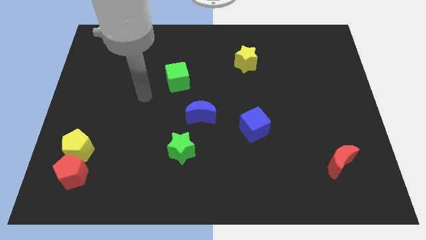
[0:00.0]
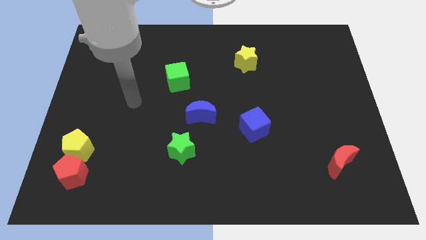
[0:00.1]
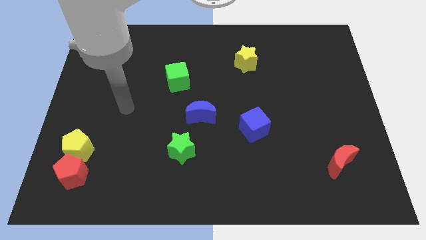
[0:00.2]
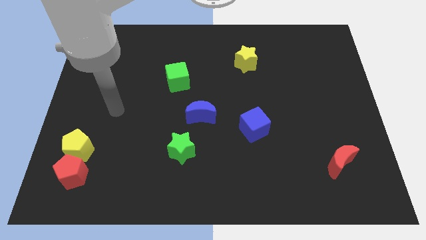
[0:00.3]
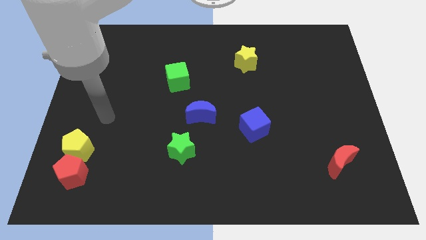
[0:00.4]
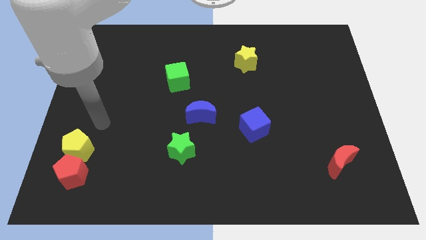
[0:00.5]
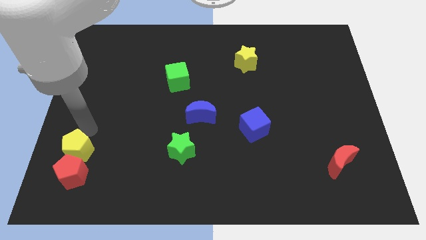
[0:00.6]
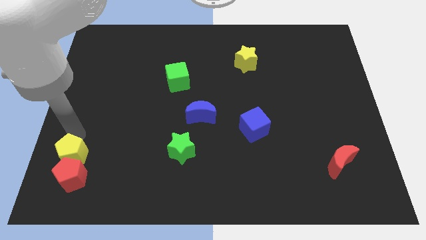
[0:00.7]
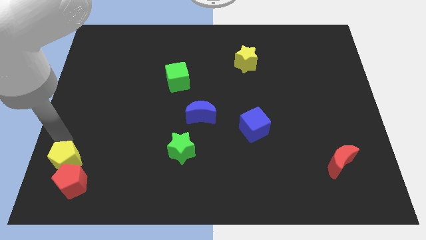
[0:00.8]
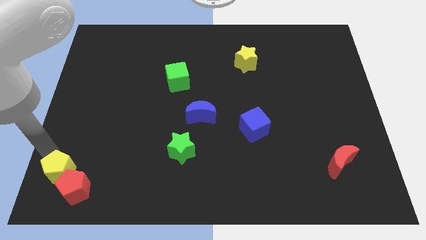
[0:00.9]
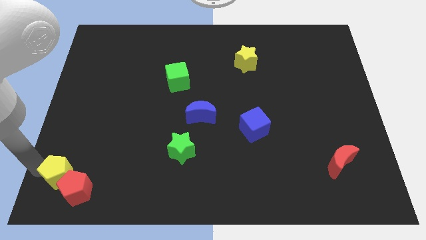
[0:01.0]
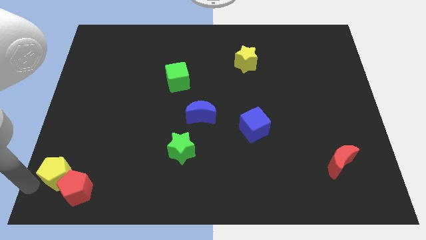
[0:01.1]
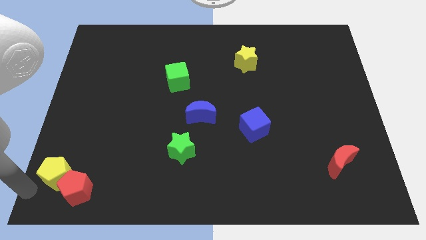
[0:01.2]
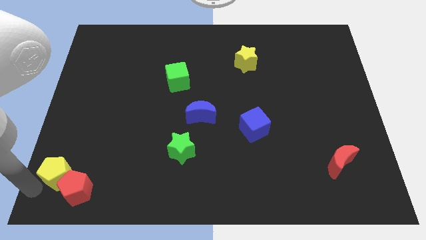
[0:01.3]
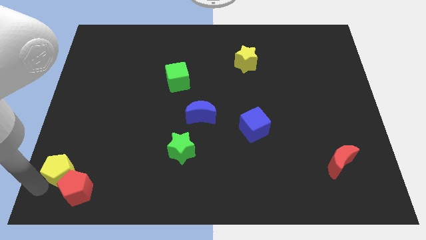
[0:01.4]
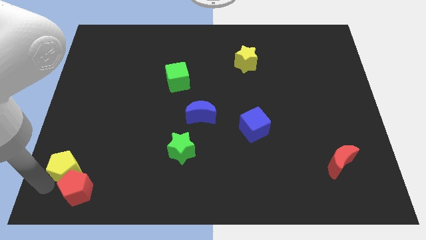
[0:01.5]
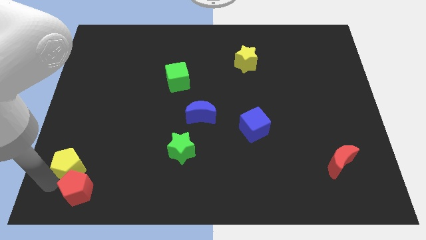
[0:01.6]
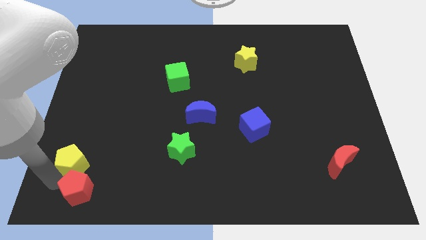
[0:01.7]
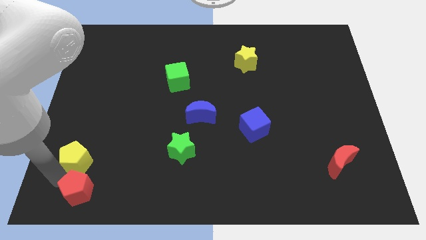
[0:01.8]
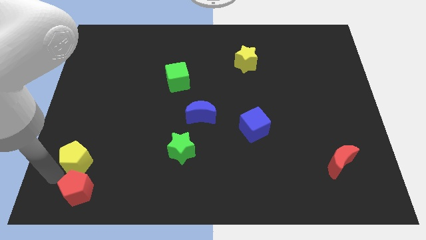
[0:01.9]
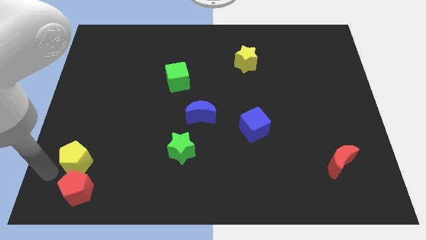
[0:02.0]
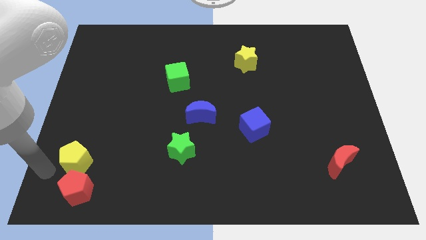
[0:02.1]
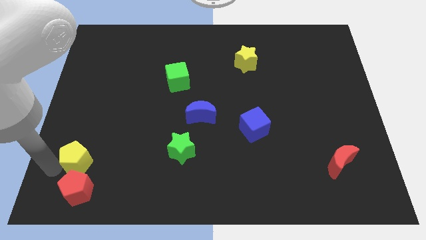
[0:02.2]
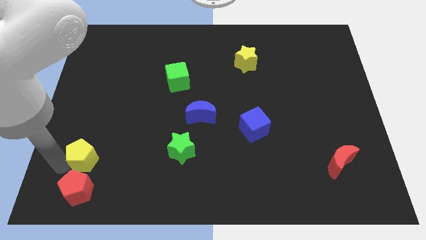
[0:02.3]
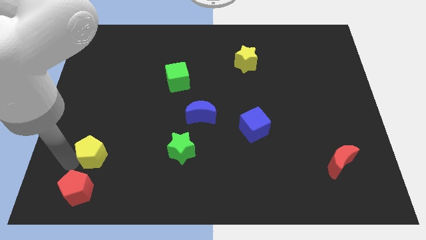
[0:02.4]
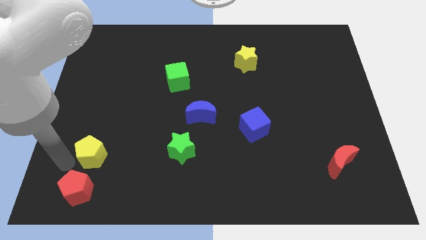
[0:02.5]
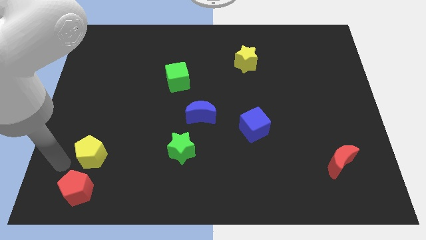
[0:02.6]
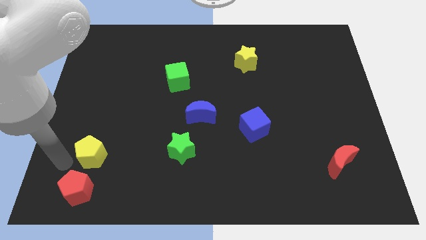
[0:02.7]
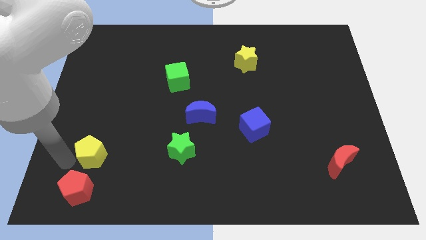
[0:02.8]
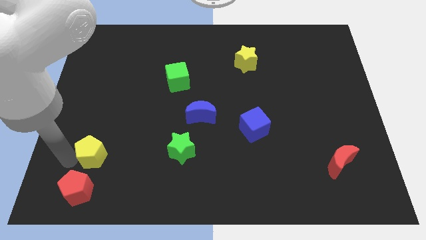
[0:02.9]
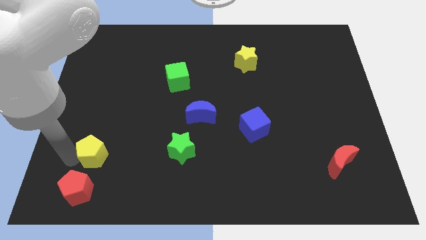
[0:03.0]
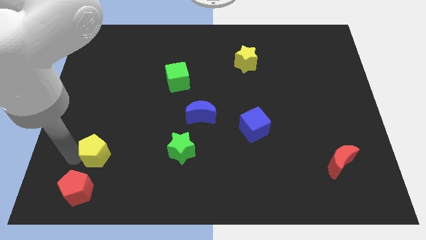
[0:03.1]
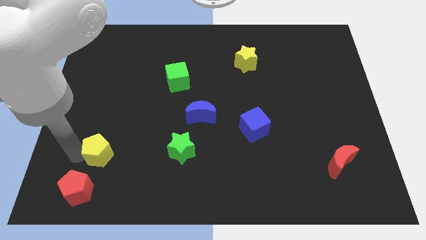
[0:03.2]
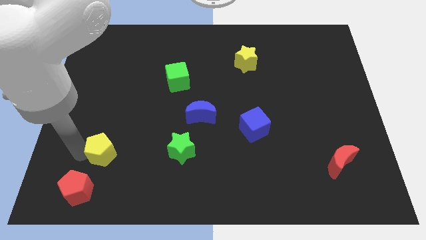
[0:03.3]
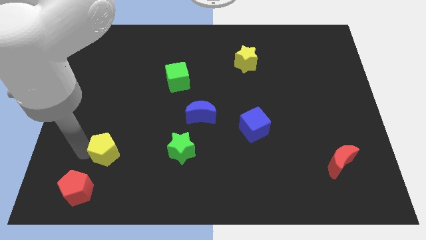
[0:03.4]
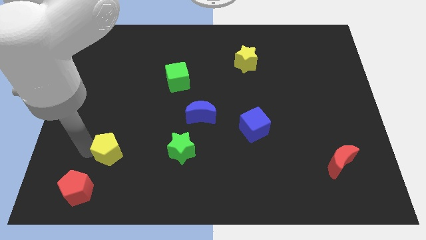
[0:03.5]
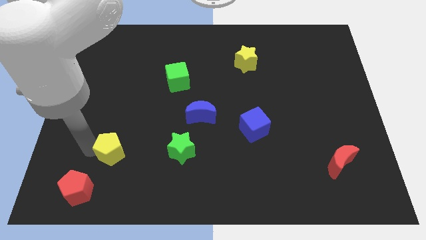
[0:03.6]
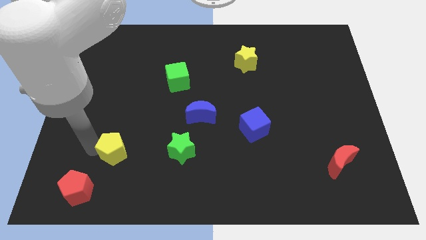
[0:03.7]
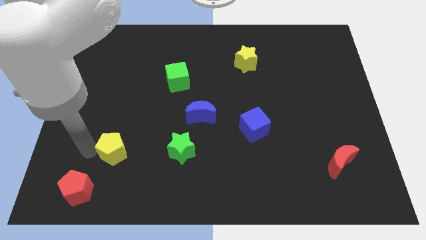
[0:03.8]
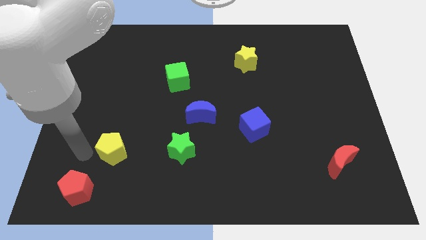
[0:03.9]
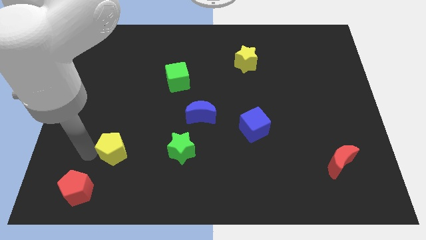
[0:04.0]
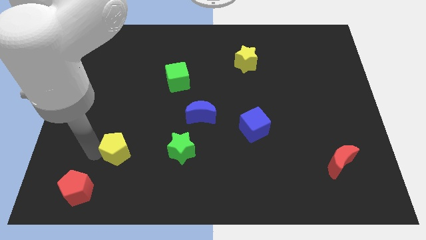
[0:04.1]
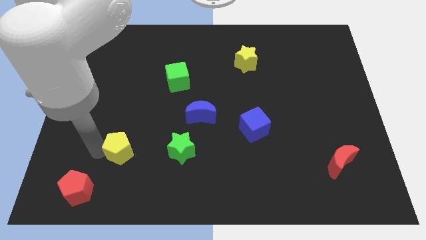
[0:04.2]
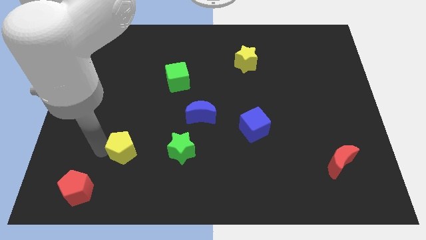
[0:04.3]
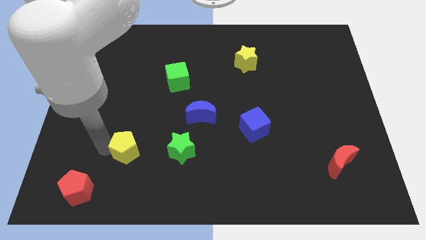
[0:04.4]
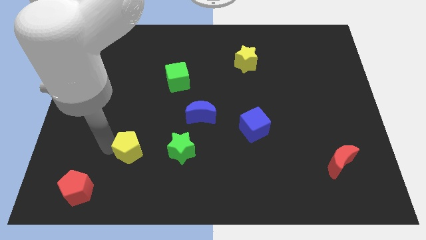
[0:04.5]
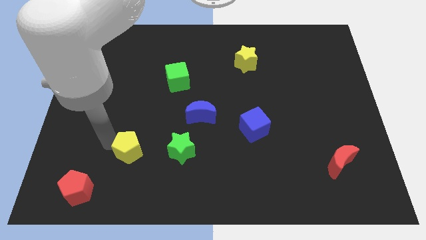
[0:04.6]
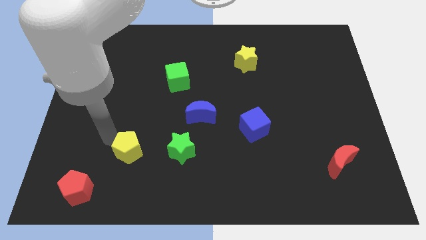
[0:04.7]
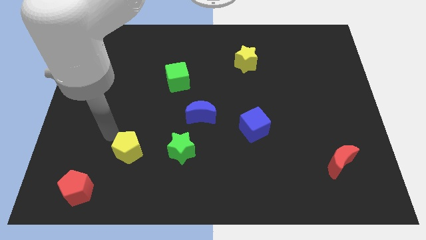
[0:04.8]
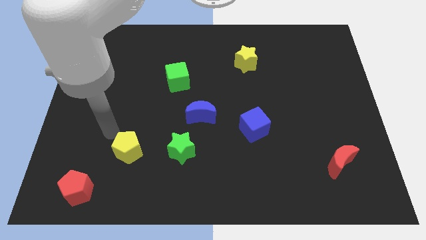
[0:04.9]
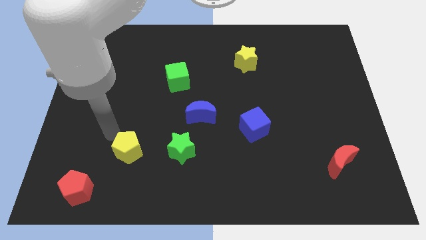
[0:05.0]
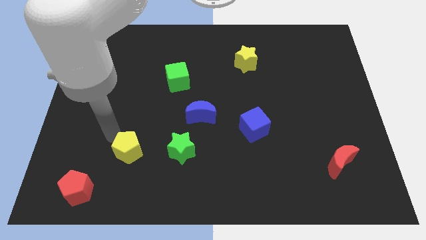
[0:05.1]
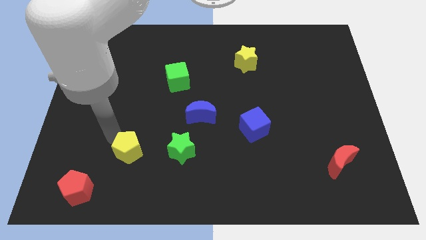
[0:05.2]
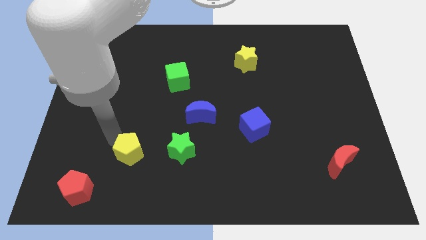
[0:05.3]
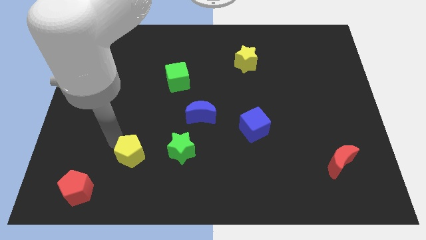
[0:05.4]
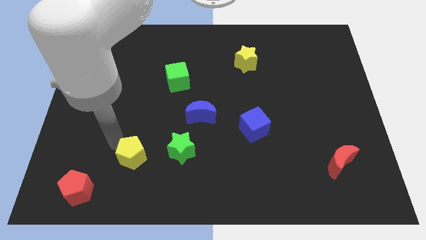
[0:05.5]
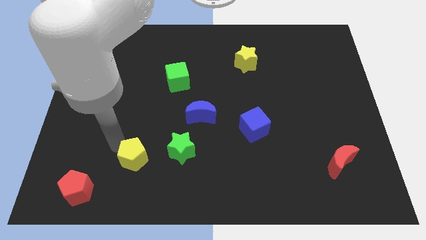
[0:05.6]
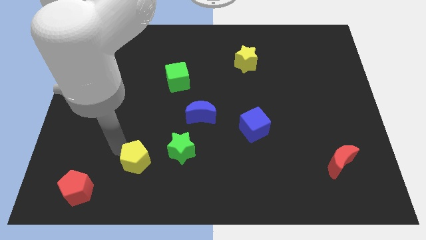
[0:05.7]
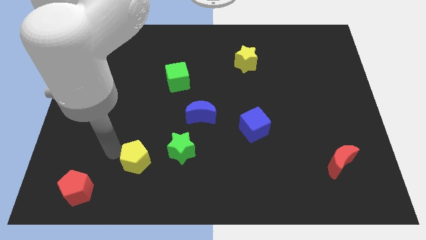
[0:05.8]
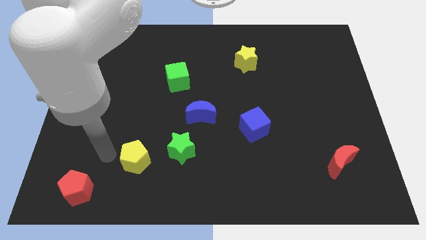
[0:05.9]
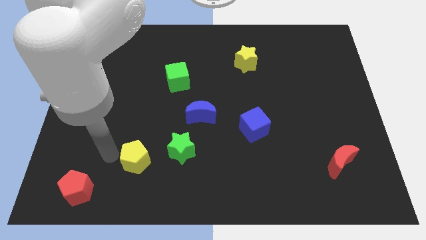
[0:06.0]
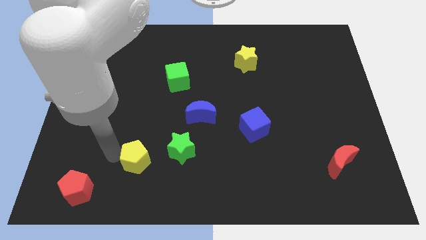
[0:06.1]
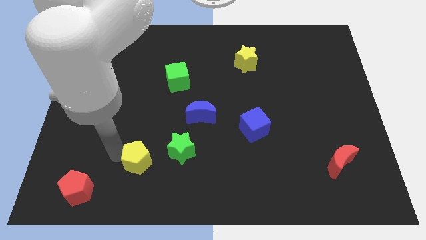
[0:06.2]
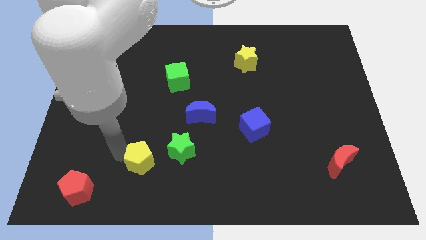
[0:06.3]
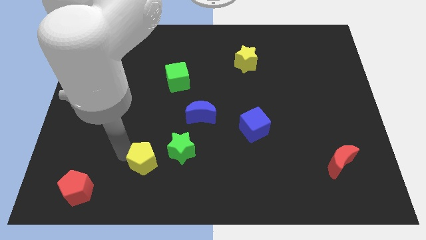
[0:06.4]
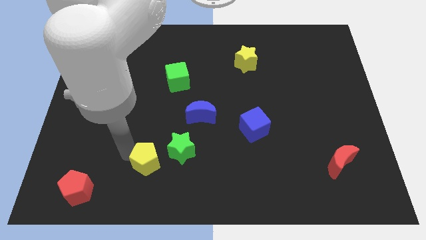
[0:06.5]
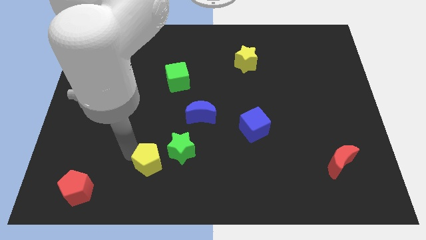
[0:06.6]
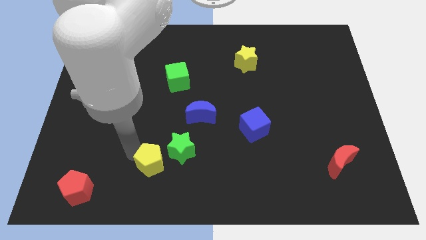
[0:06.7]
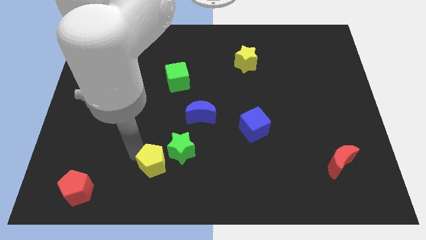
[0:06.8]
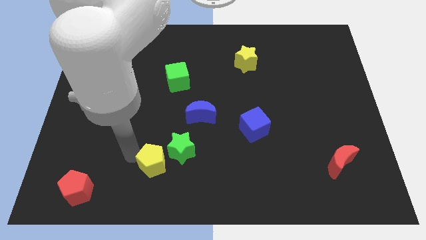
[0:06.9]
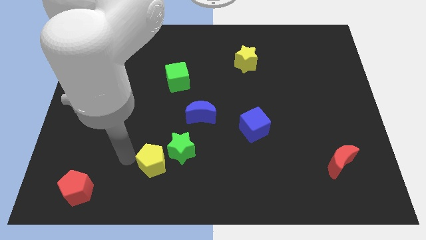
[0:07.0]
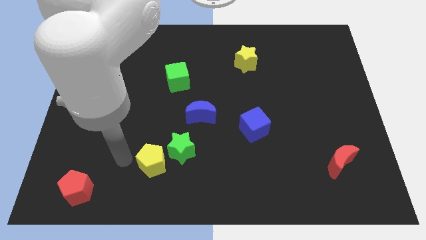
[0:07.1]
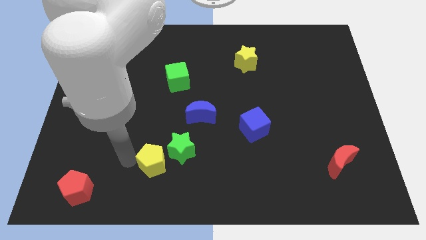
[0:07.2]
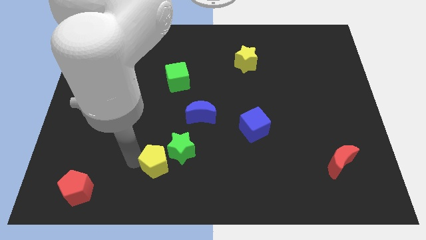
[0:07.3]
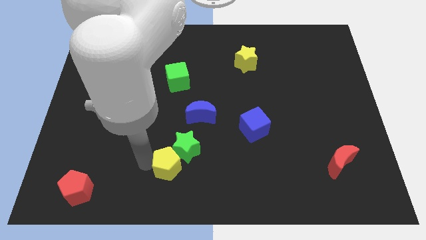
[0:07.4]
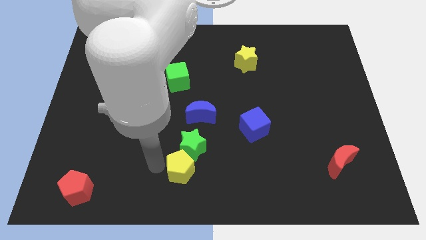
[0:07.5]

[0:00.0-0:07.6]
move the yellow pentagon right
